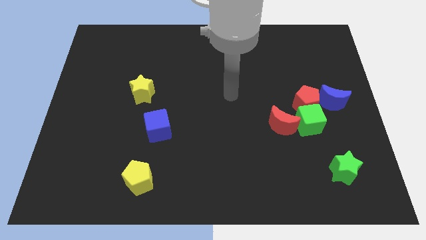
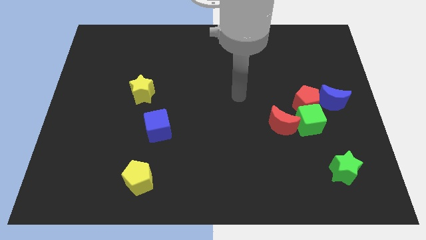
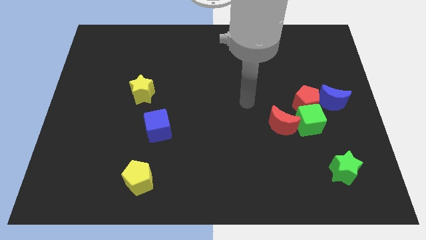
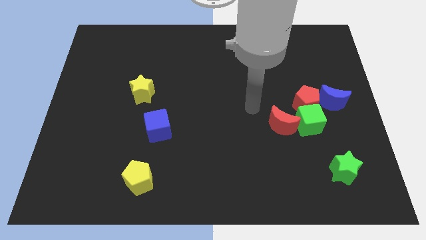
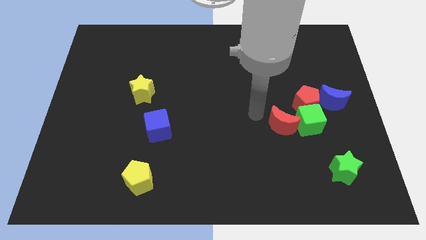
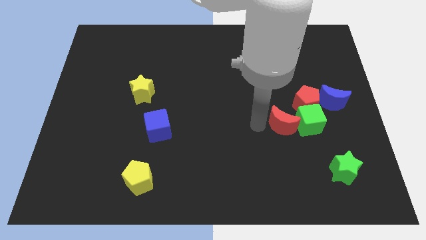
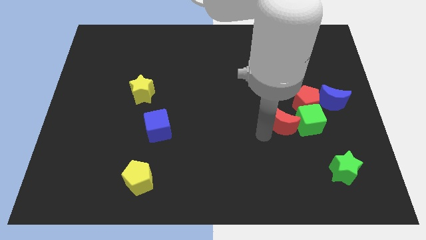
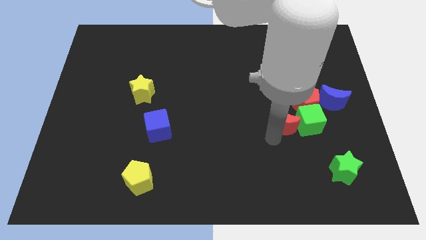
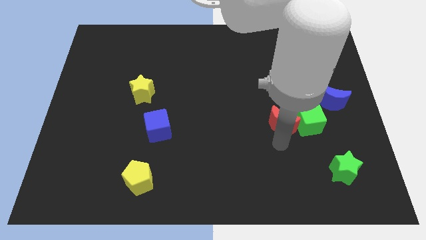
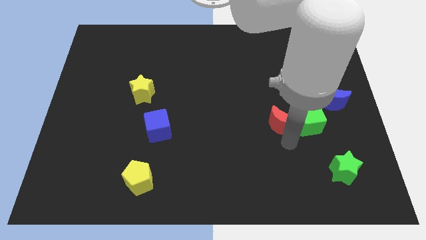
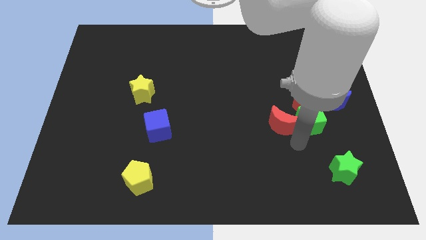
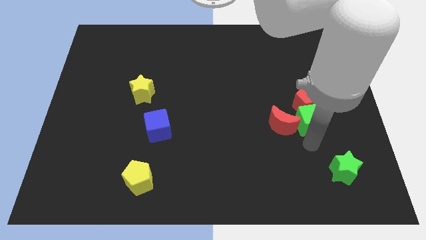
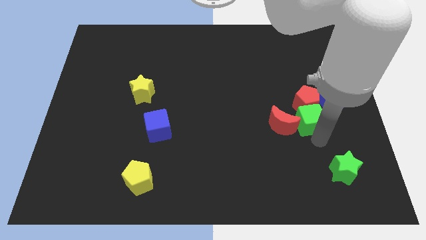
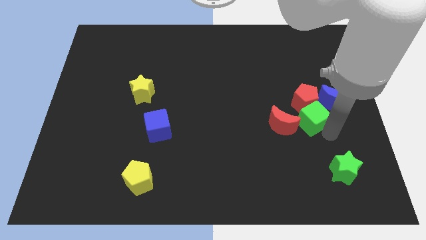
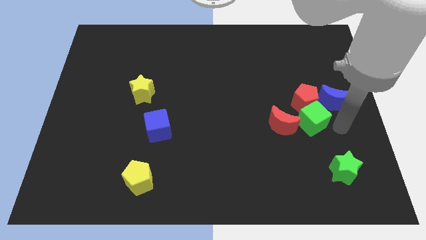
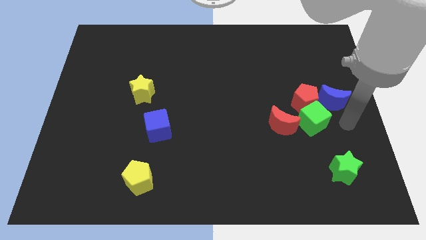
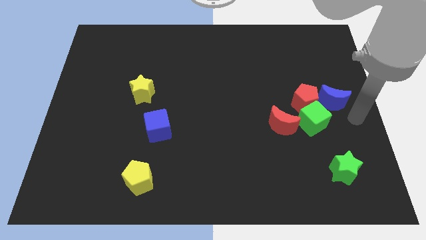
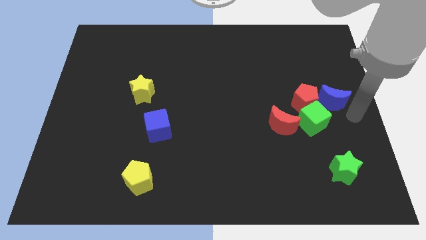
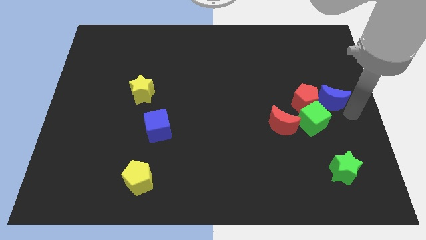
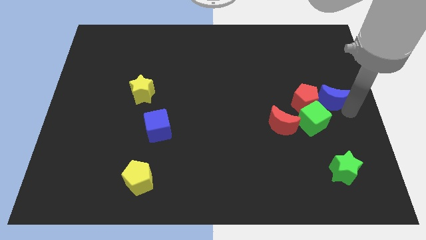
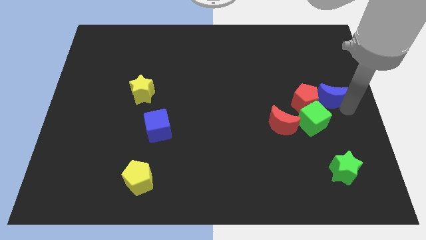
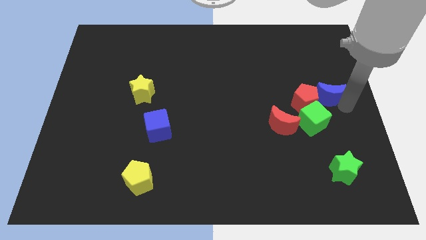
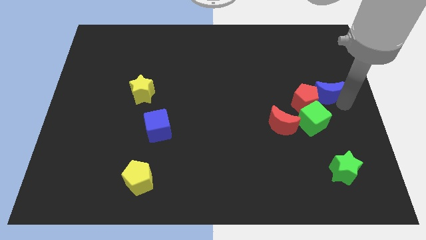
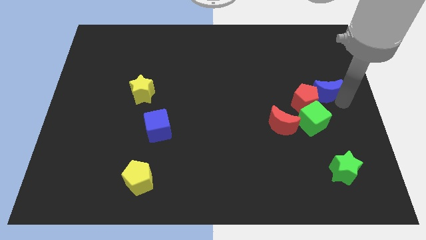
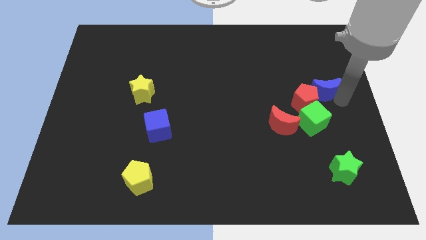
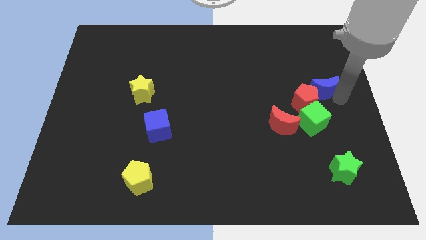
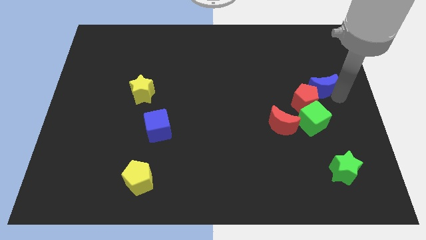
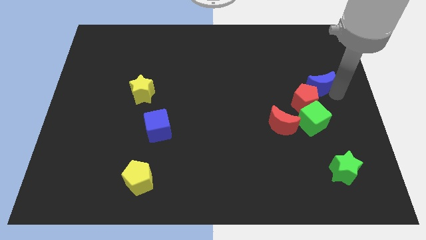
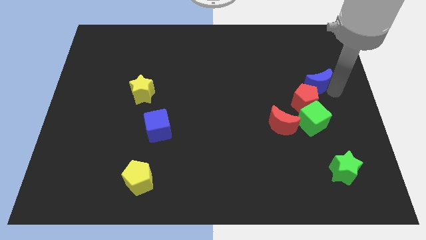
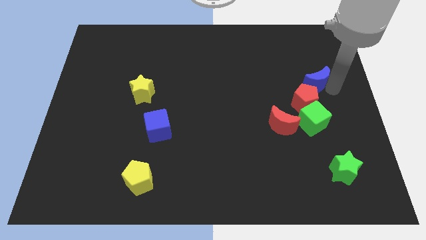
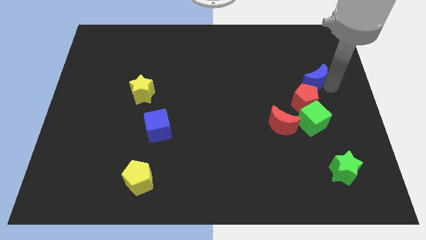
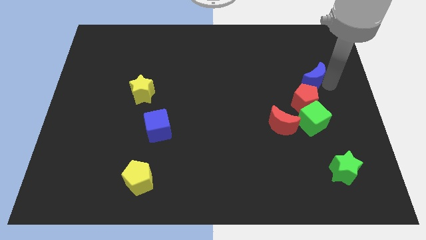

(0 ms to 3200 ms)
push the blue moon diagonally up and left a little bit

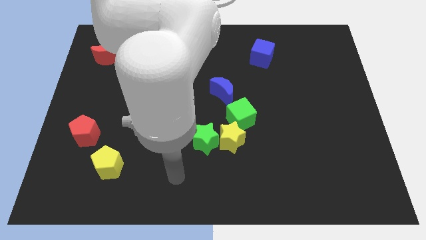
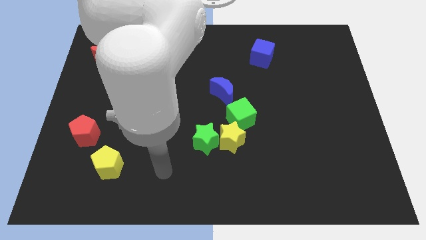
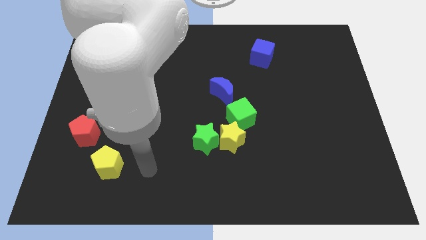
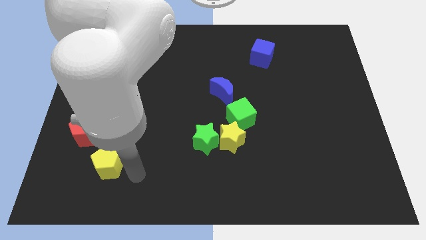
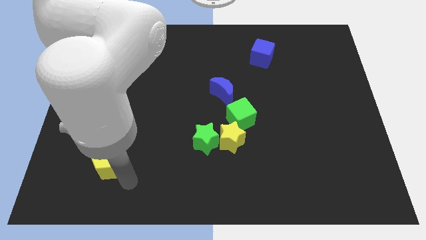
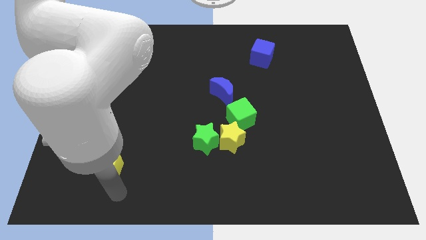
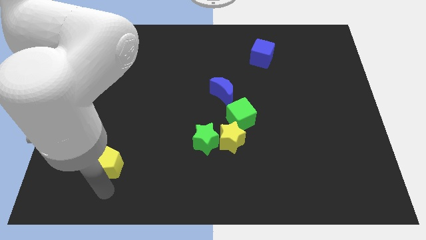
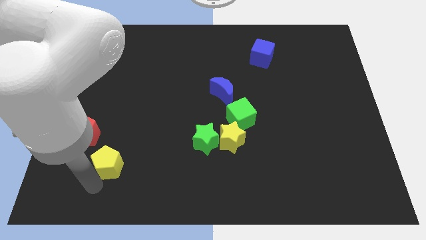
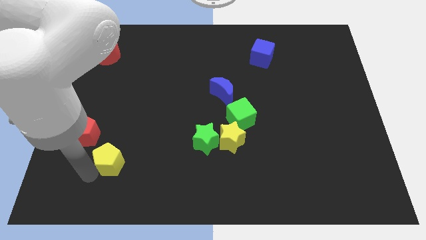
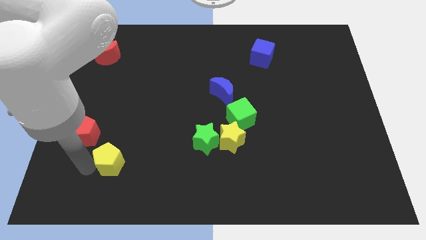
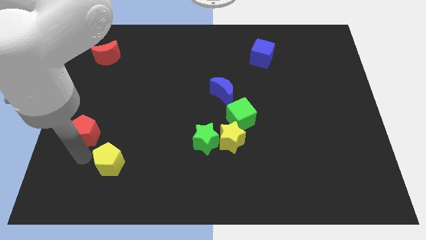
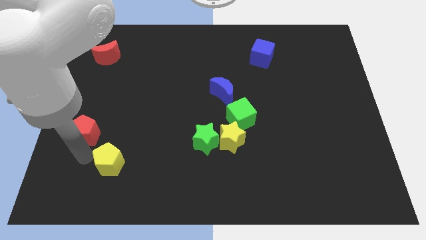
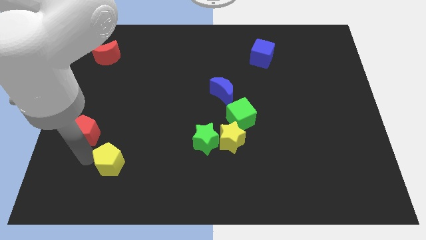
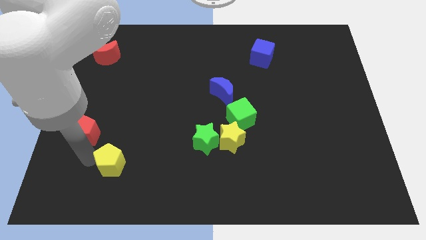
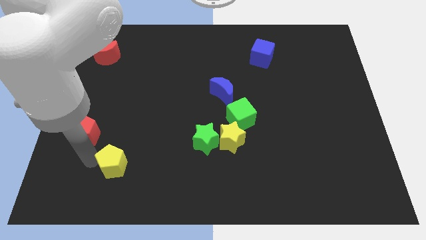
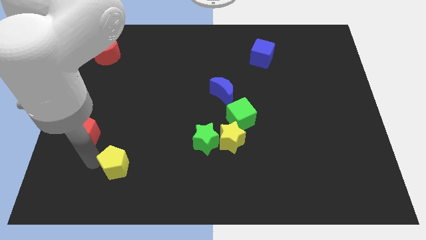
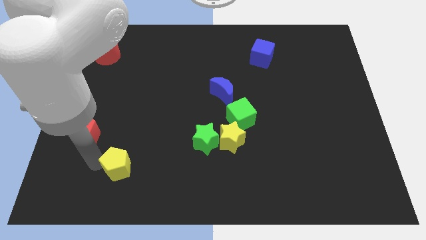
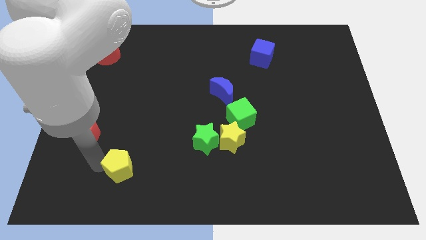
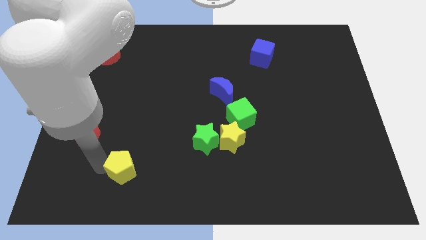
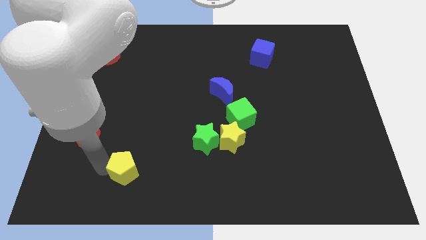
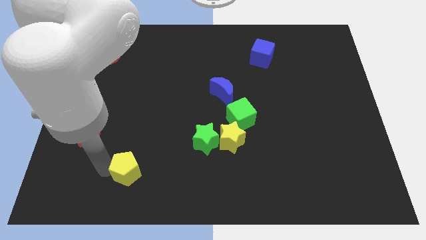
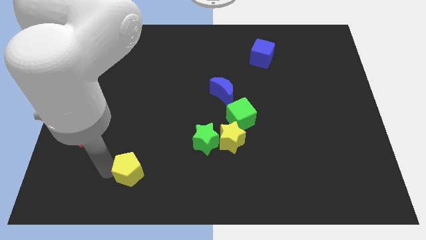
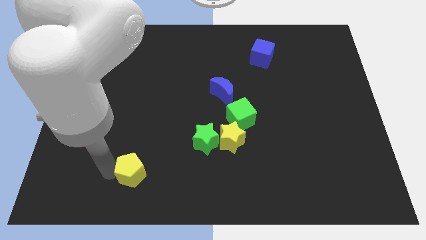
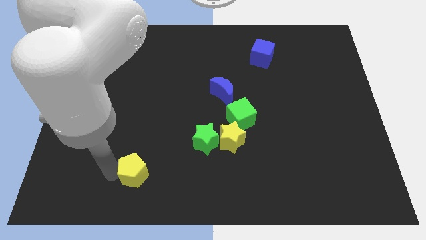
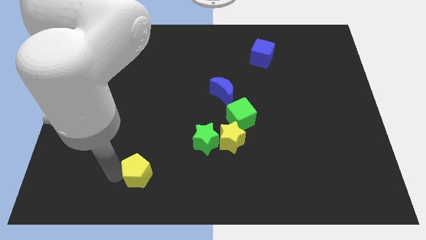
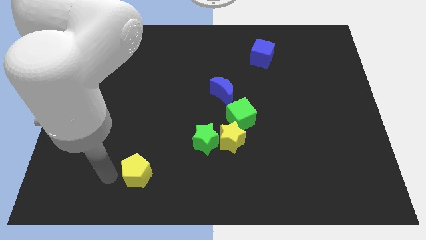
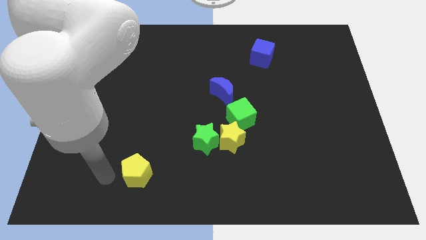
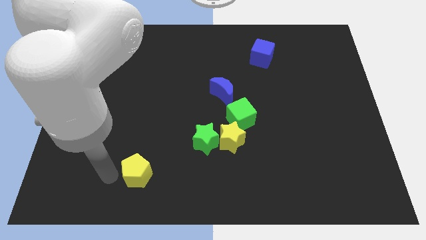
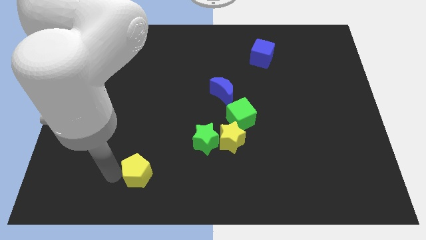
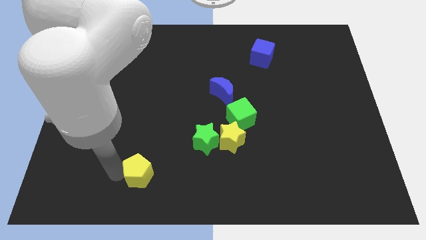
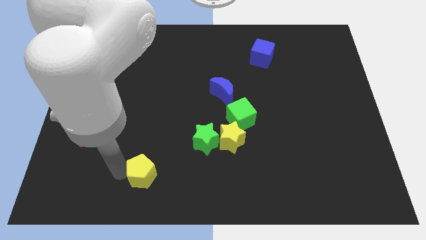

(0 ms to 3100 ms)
push the yellow pentagon a little to the right

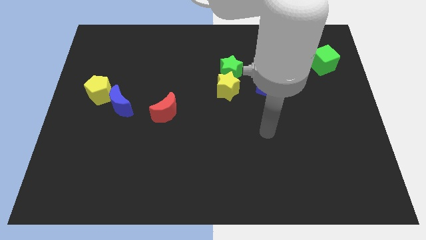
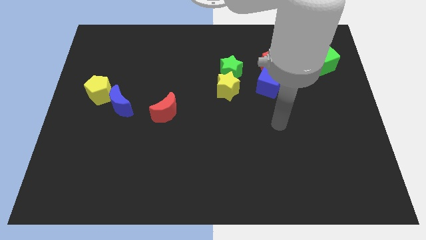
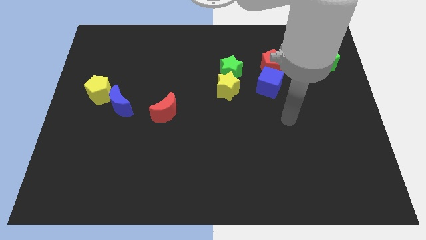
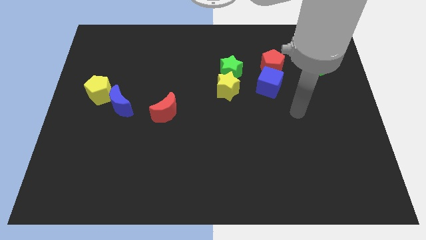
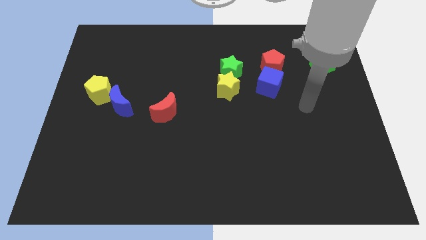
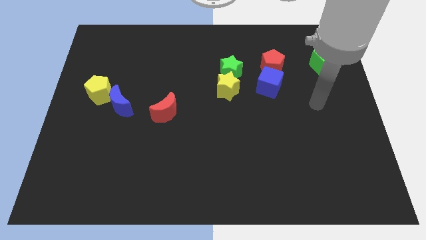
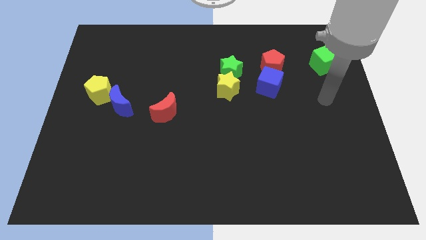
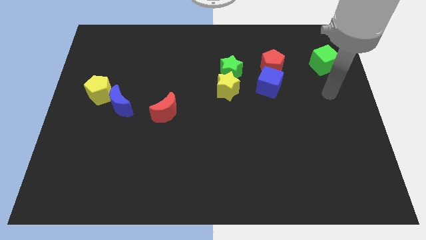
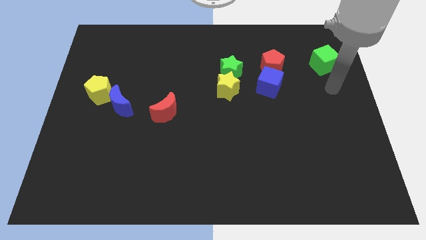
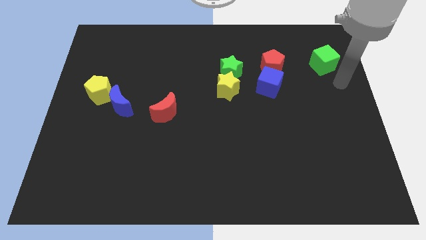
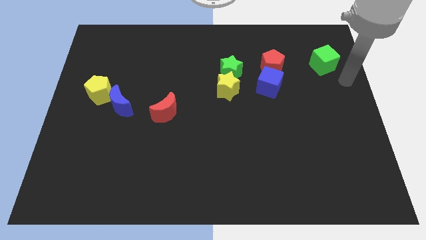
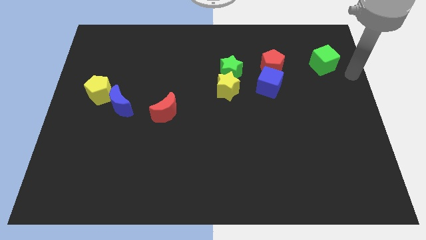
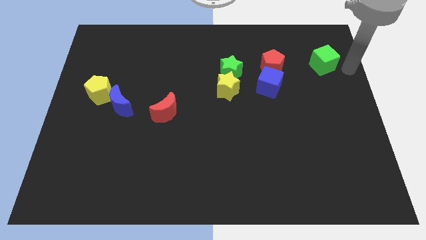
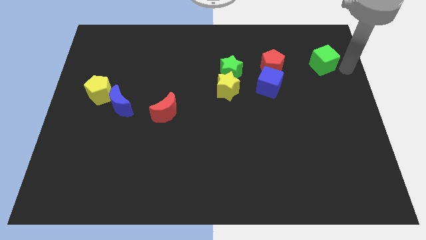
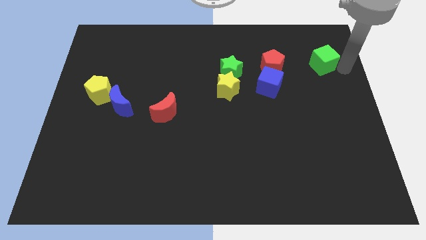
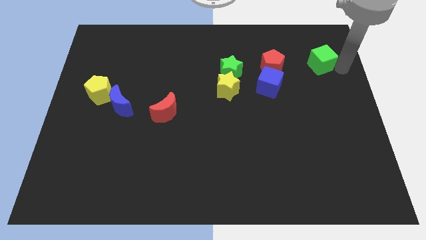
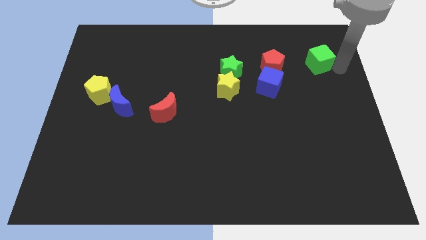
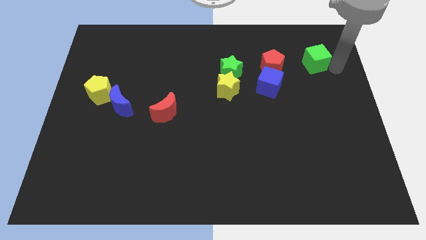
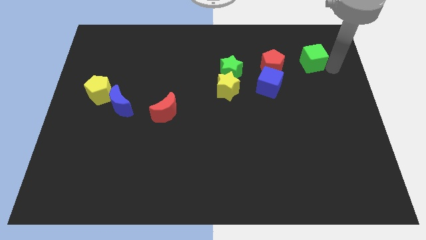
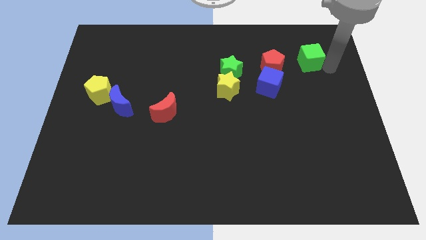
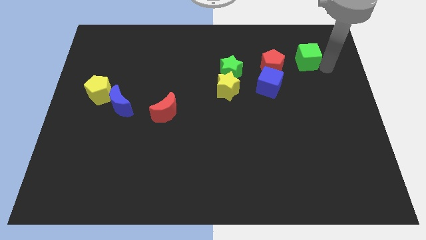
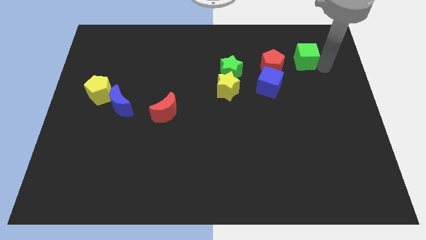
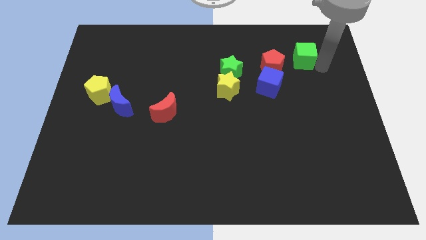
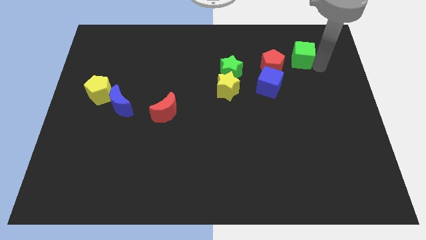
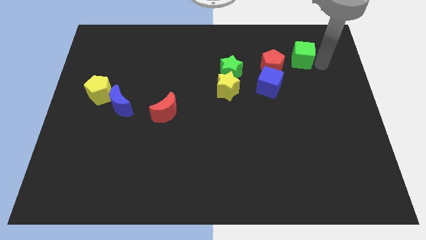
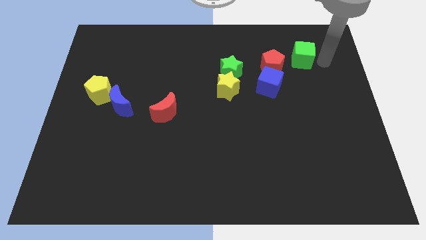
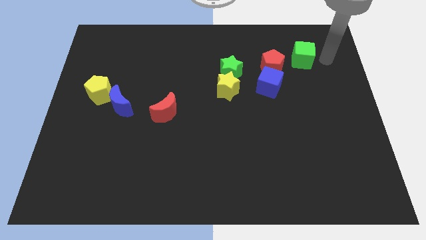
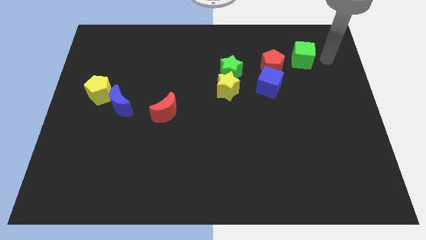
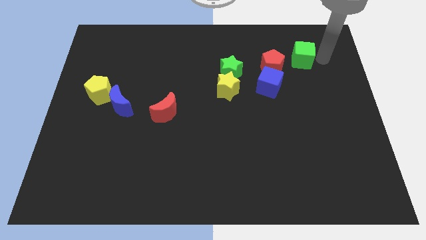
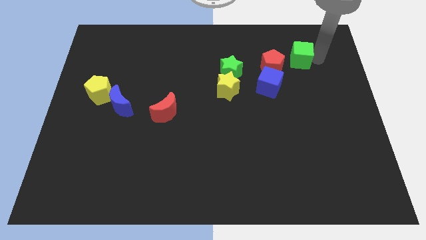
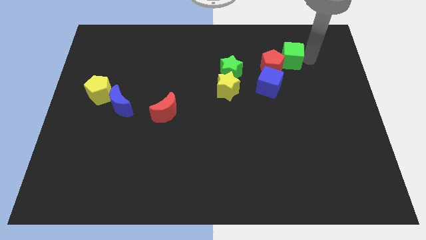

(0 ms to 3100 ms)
push the green cube slightly left
